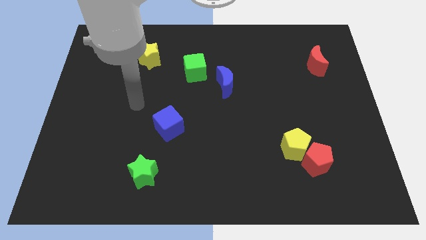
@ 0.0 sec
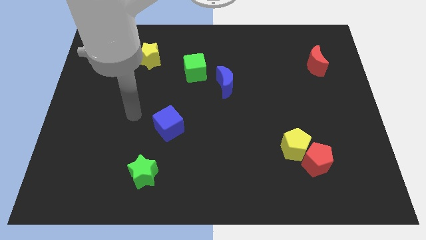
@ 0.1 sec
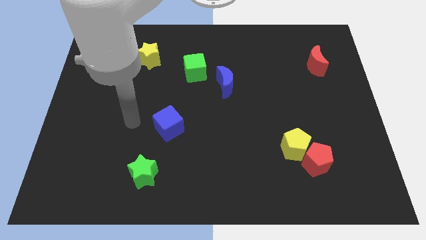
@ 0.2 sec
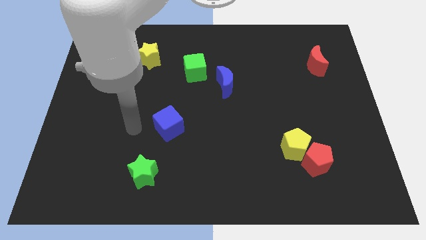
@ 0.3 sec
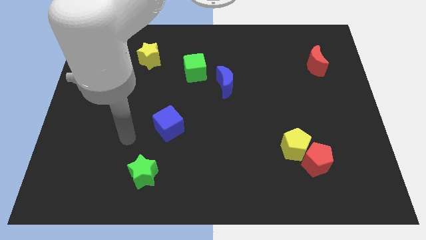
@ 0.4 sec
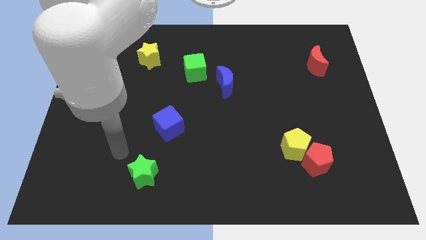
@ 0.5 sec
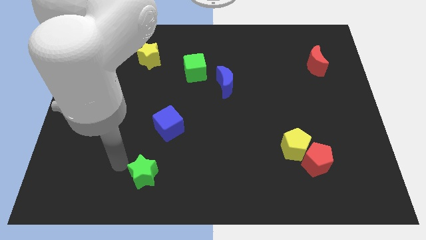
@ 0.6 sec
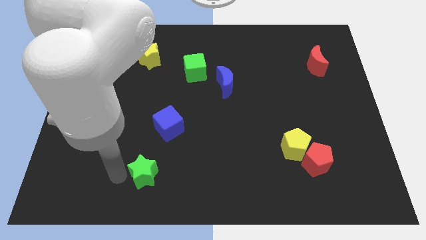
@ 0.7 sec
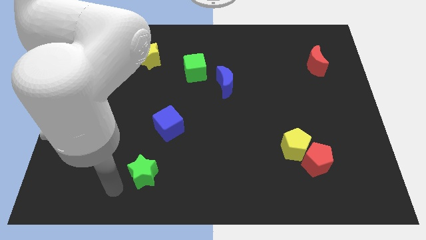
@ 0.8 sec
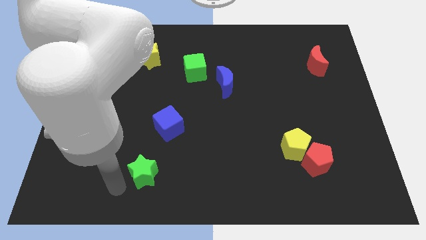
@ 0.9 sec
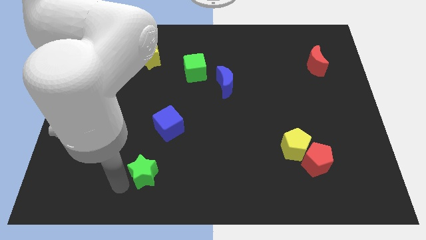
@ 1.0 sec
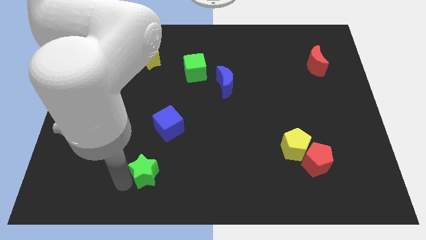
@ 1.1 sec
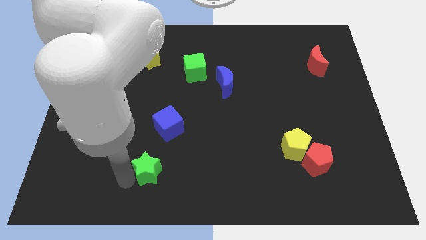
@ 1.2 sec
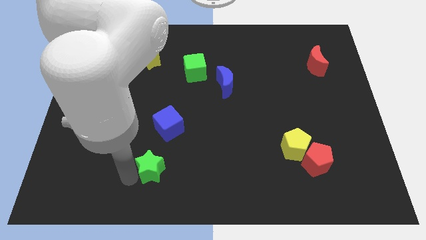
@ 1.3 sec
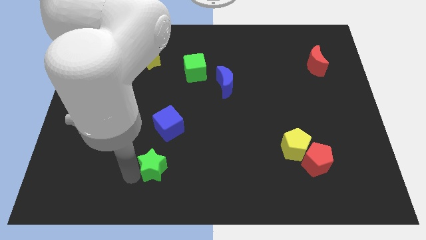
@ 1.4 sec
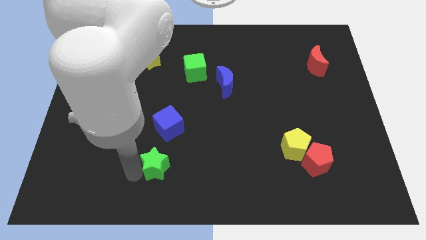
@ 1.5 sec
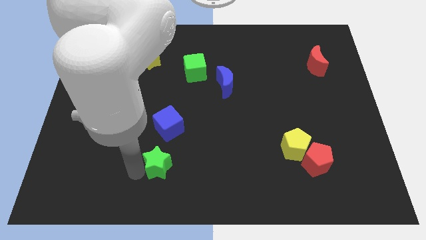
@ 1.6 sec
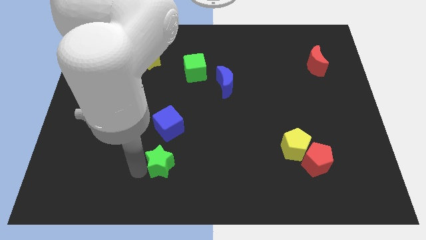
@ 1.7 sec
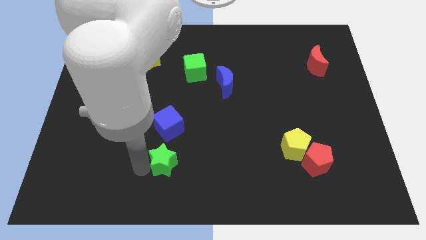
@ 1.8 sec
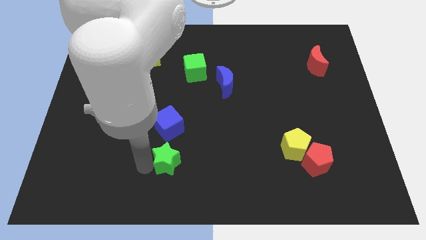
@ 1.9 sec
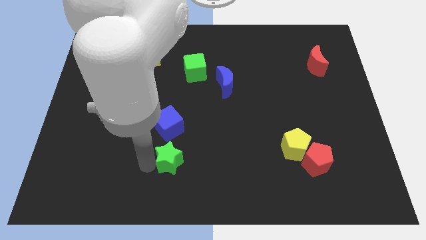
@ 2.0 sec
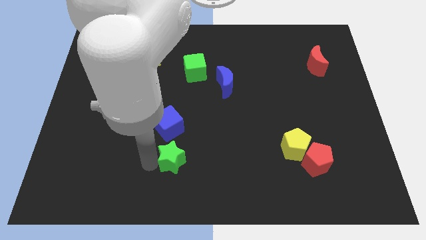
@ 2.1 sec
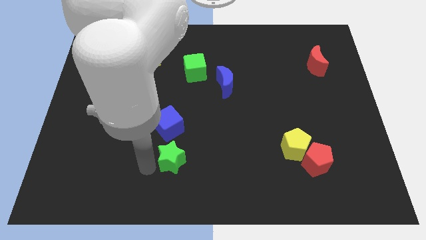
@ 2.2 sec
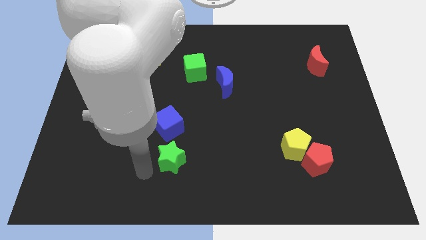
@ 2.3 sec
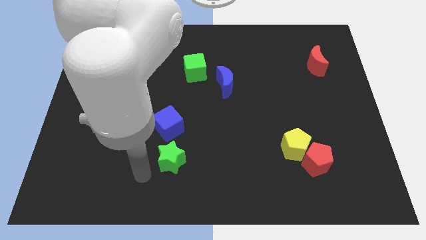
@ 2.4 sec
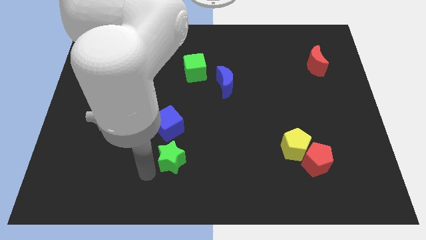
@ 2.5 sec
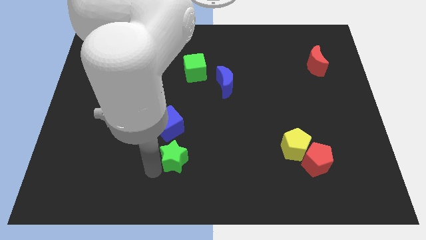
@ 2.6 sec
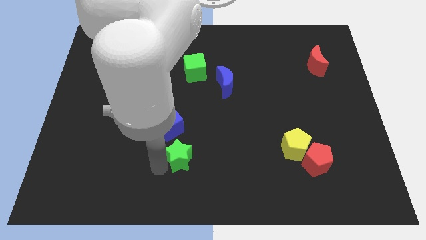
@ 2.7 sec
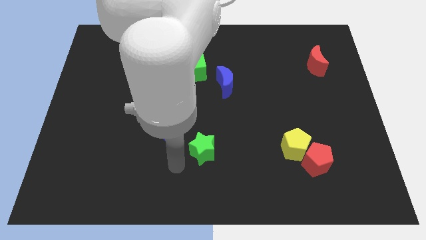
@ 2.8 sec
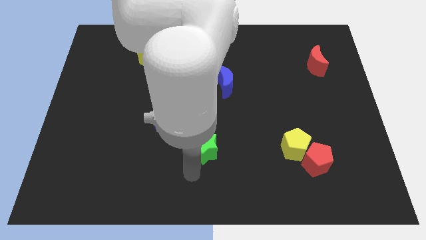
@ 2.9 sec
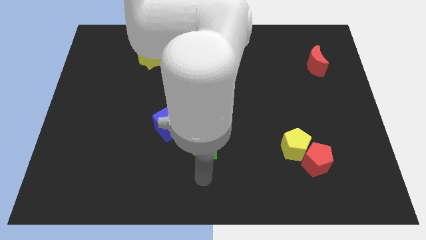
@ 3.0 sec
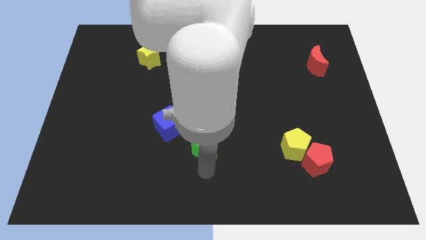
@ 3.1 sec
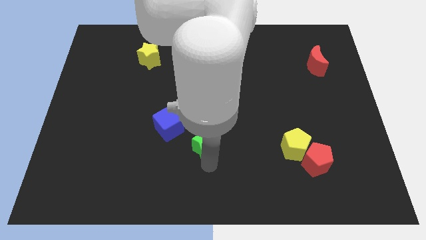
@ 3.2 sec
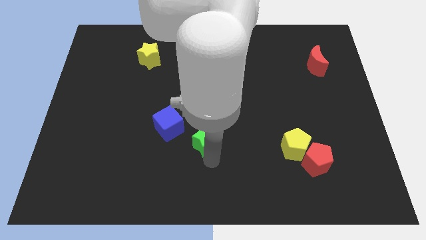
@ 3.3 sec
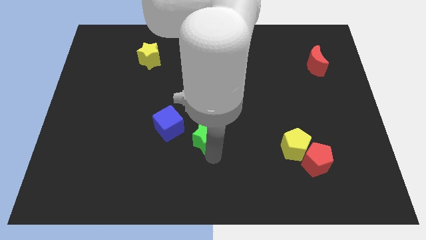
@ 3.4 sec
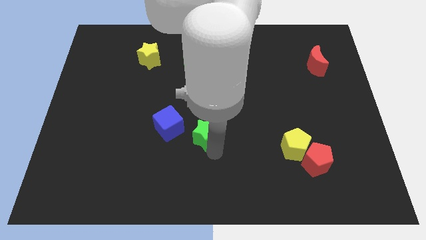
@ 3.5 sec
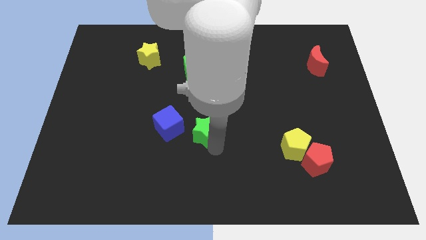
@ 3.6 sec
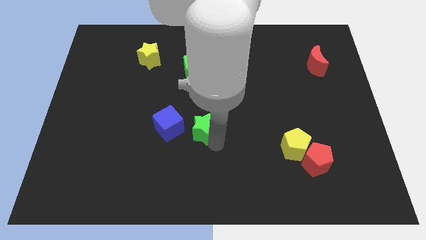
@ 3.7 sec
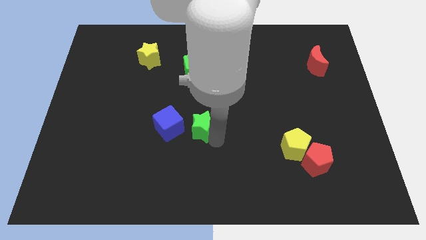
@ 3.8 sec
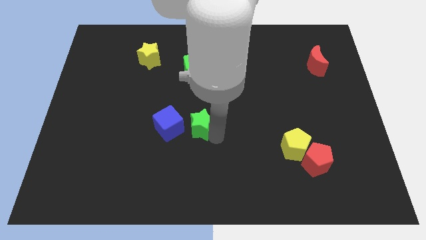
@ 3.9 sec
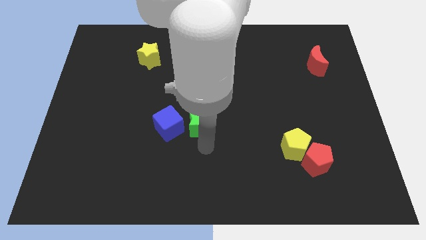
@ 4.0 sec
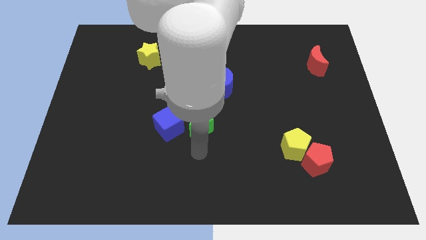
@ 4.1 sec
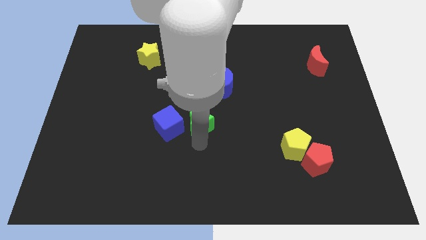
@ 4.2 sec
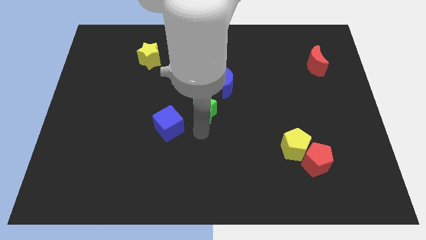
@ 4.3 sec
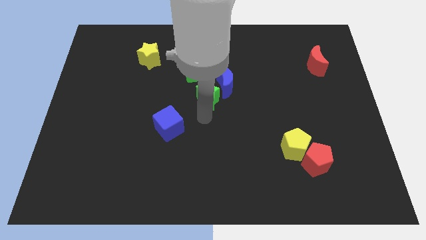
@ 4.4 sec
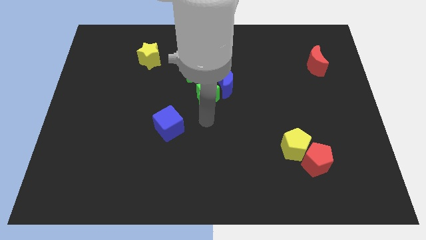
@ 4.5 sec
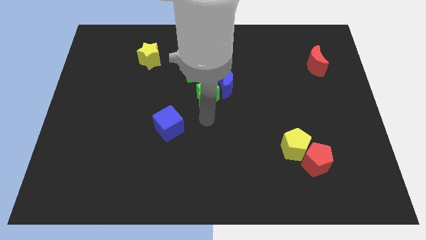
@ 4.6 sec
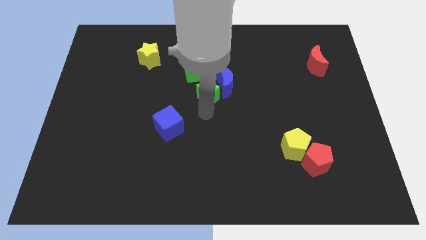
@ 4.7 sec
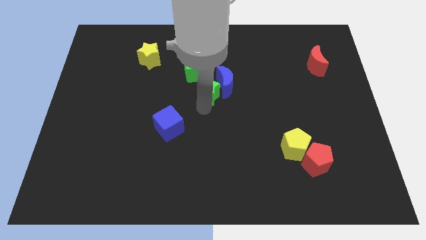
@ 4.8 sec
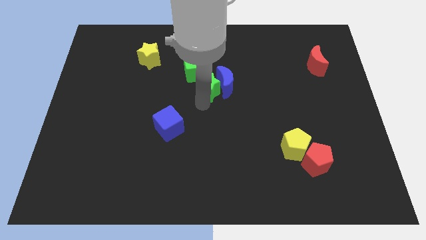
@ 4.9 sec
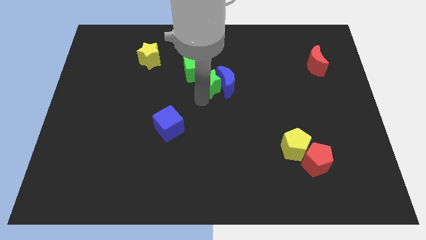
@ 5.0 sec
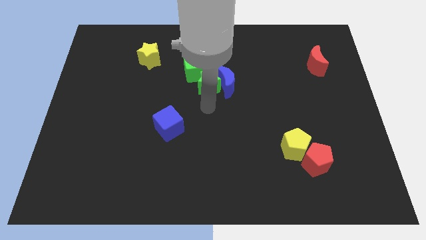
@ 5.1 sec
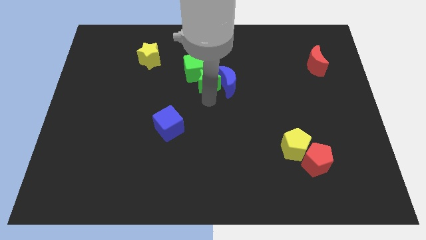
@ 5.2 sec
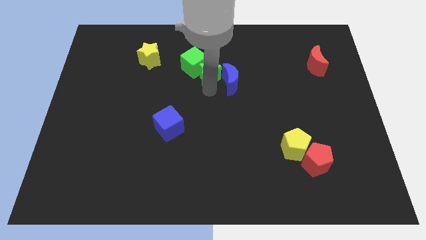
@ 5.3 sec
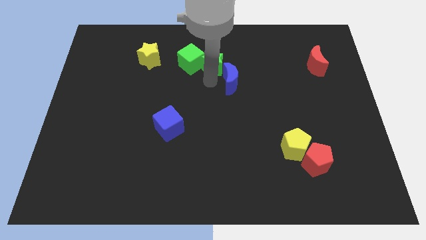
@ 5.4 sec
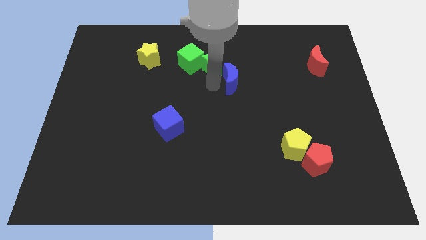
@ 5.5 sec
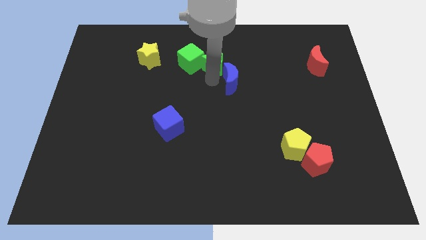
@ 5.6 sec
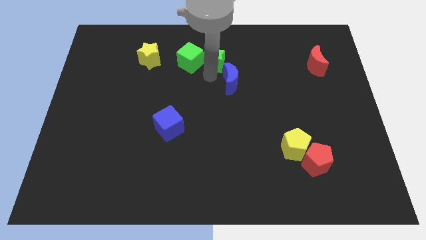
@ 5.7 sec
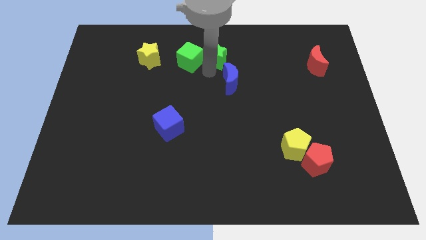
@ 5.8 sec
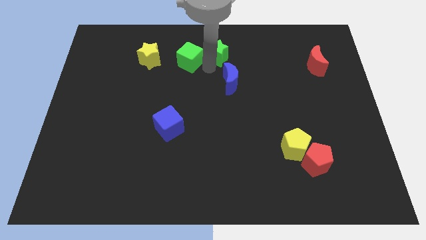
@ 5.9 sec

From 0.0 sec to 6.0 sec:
put the green star to the top side

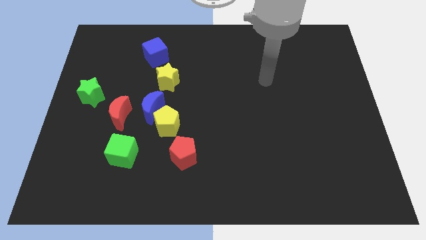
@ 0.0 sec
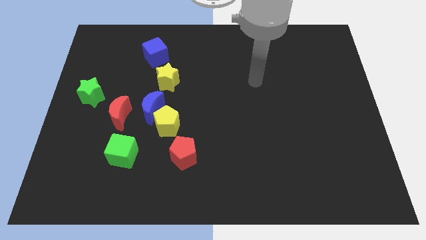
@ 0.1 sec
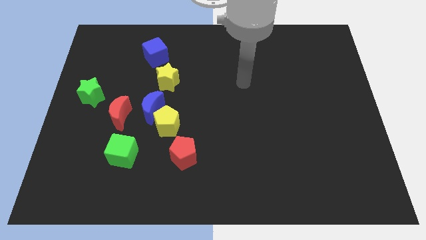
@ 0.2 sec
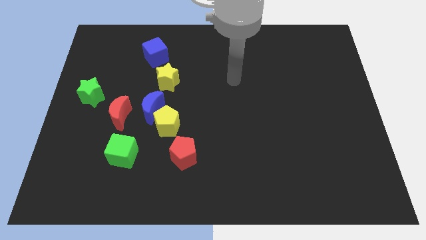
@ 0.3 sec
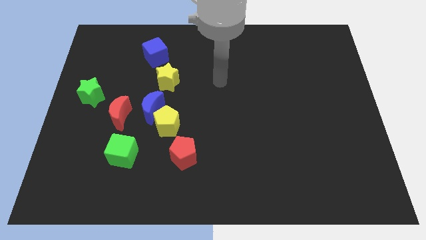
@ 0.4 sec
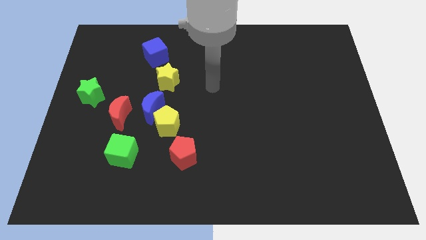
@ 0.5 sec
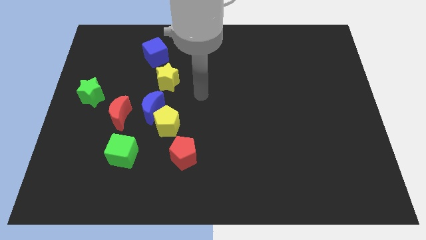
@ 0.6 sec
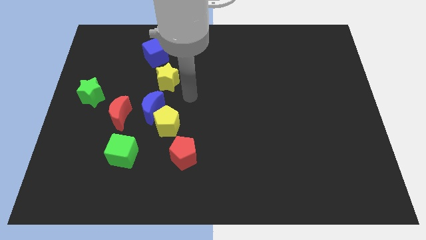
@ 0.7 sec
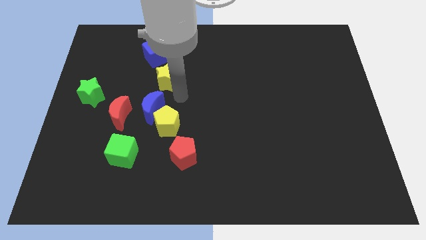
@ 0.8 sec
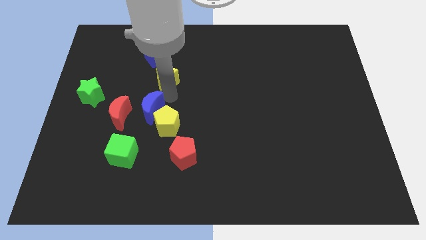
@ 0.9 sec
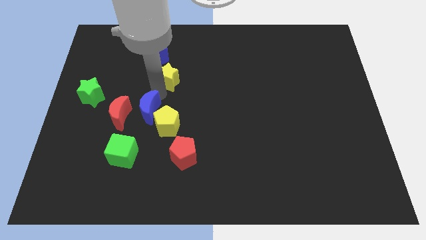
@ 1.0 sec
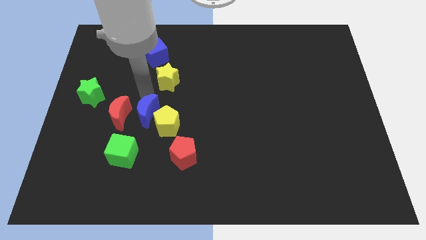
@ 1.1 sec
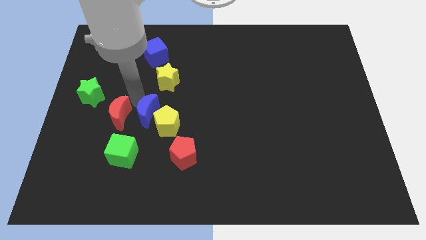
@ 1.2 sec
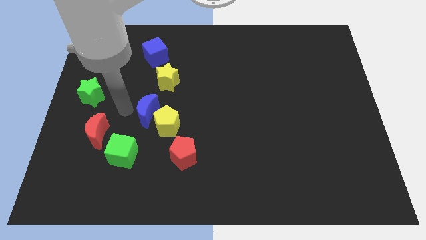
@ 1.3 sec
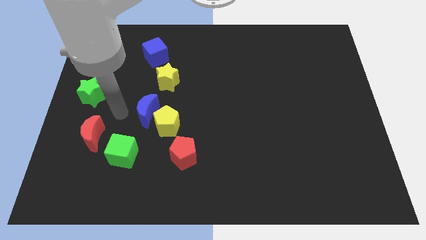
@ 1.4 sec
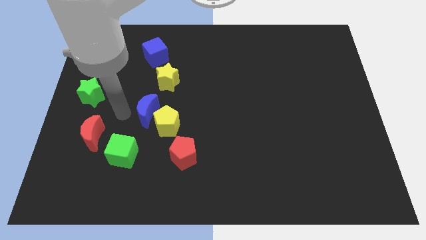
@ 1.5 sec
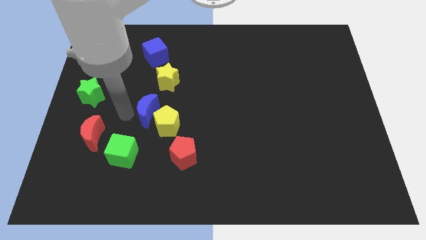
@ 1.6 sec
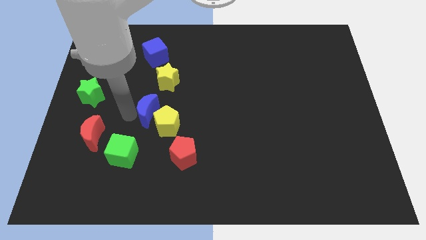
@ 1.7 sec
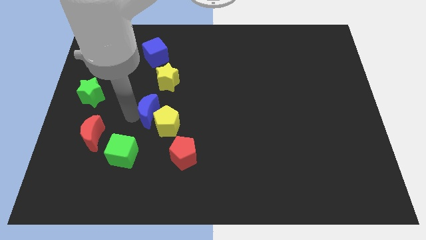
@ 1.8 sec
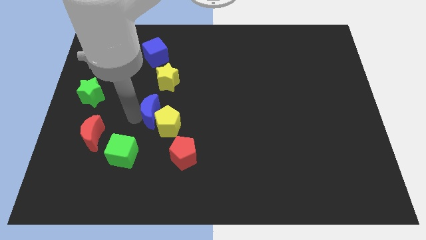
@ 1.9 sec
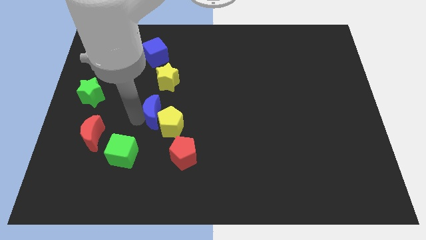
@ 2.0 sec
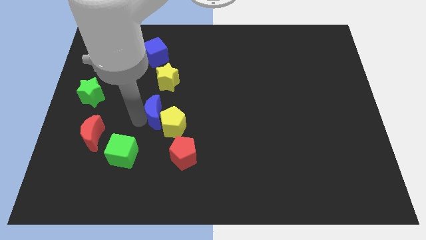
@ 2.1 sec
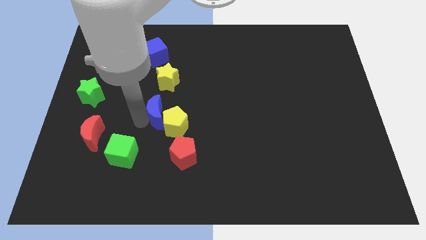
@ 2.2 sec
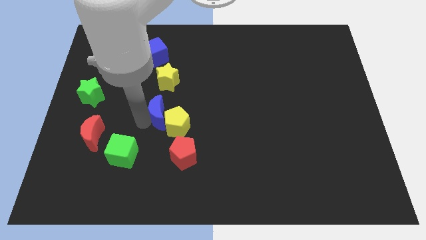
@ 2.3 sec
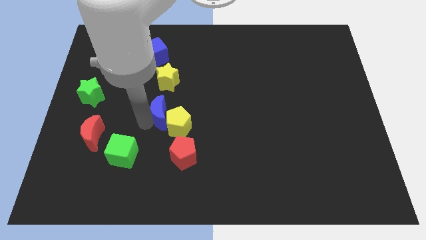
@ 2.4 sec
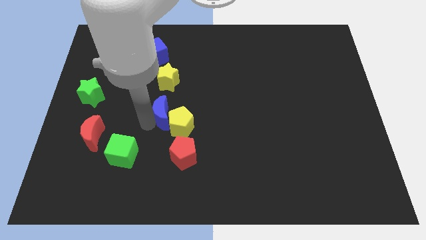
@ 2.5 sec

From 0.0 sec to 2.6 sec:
slide the blue moon to the middle of the board
